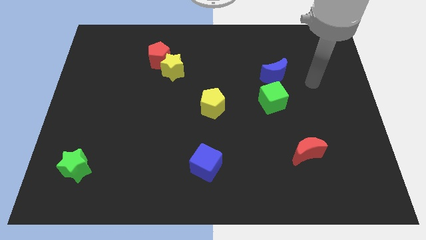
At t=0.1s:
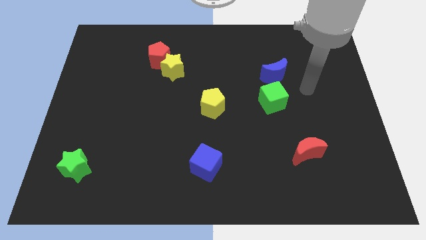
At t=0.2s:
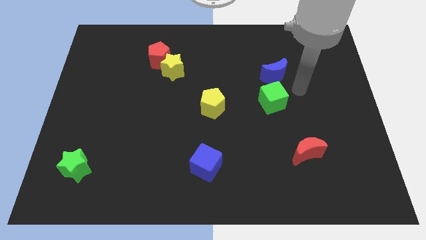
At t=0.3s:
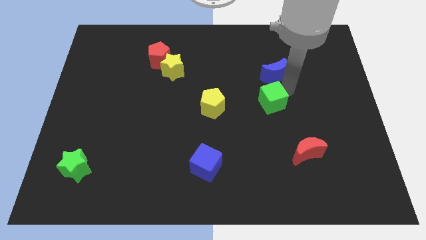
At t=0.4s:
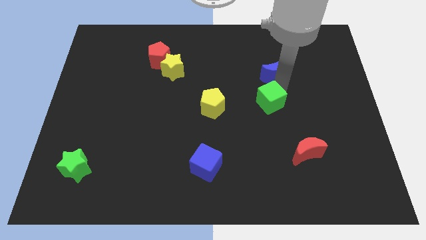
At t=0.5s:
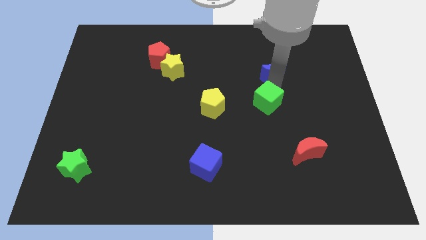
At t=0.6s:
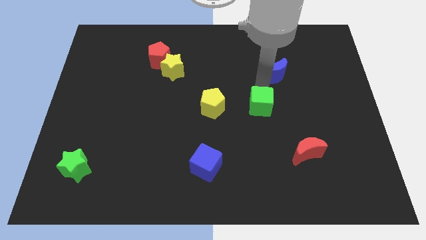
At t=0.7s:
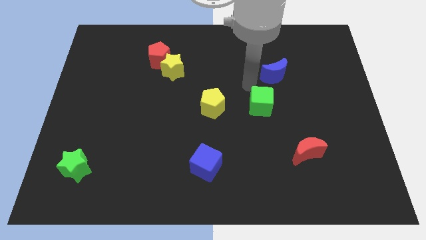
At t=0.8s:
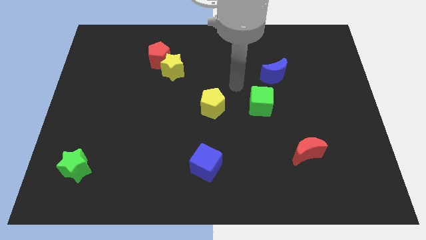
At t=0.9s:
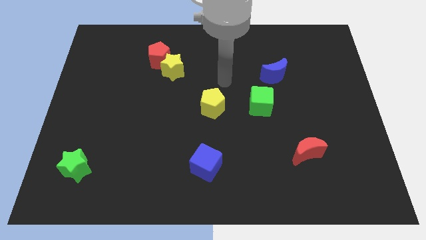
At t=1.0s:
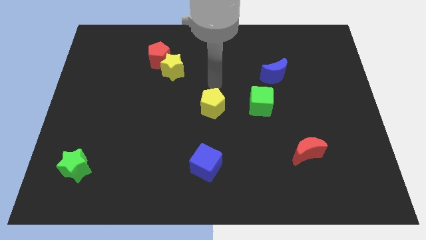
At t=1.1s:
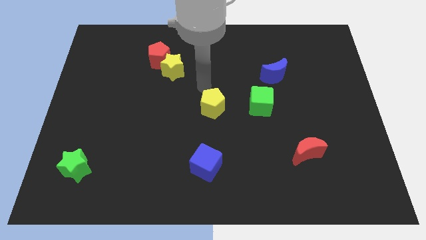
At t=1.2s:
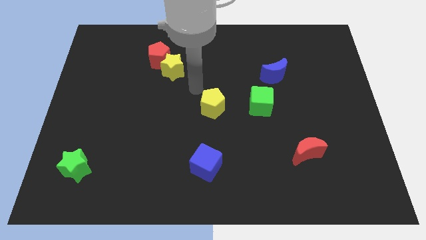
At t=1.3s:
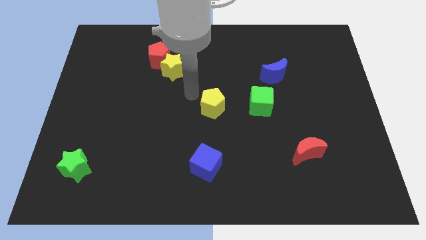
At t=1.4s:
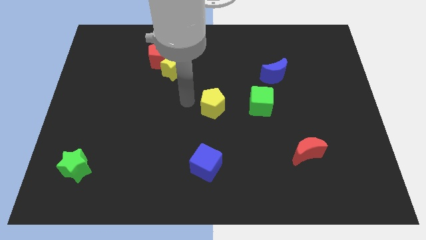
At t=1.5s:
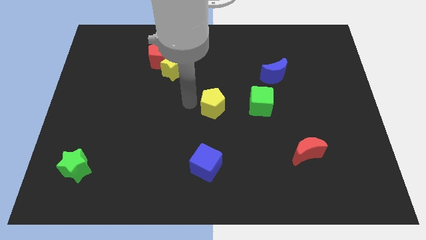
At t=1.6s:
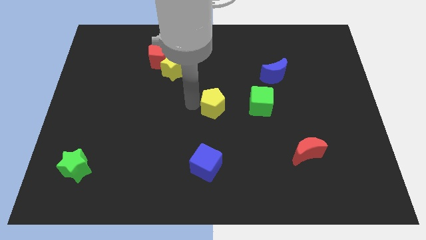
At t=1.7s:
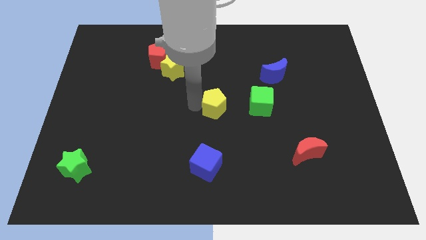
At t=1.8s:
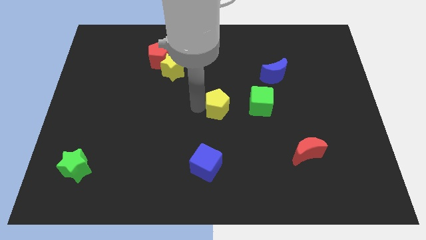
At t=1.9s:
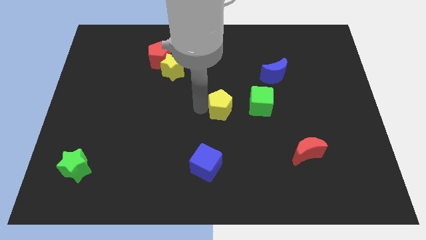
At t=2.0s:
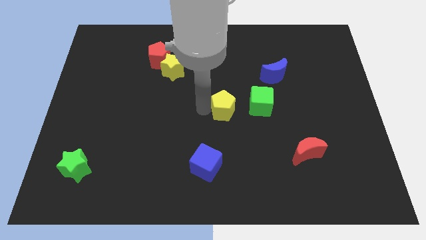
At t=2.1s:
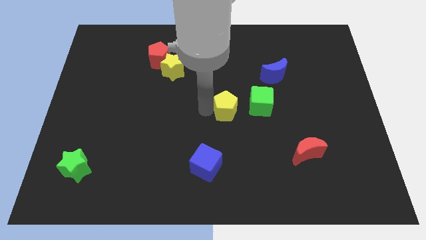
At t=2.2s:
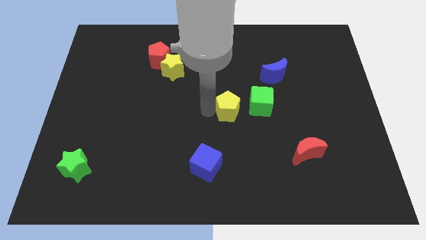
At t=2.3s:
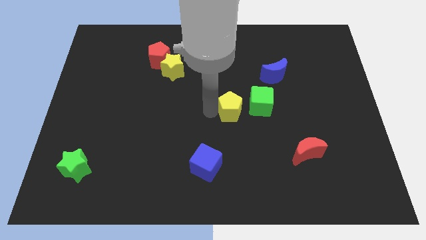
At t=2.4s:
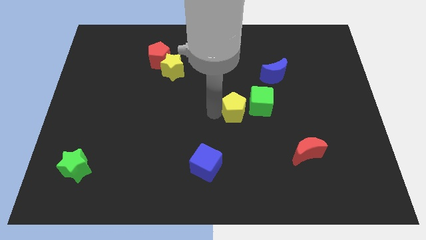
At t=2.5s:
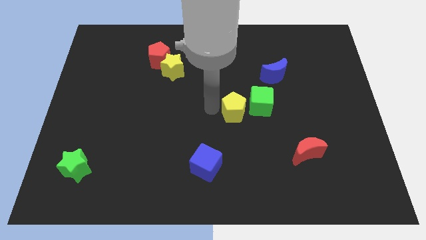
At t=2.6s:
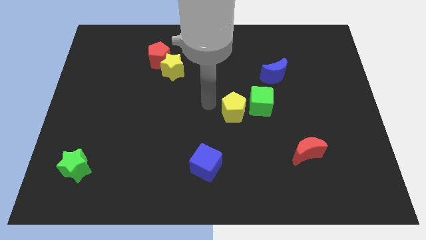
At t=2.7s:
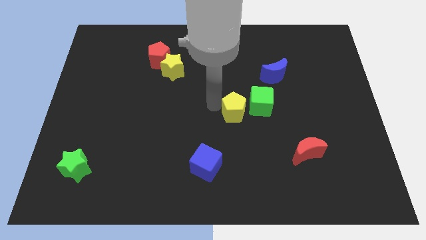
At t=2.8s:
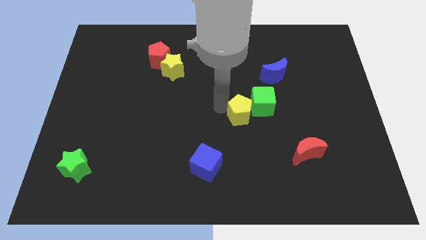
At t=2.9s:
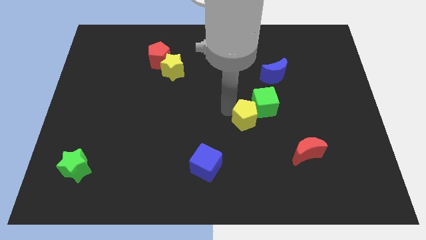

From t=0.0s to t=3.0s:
move the yellow pentagon right a little bit

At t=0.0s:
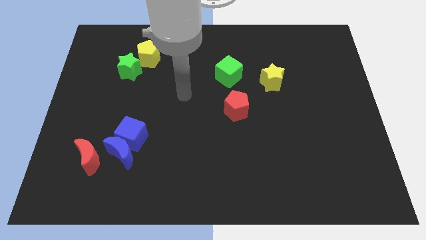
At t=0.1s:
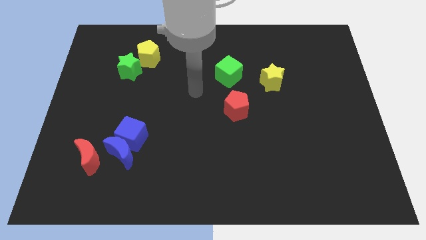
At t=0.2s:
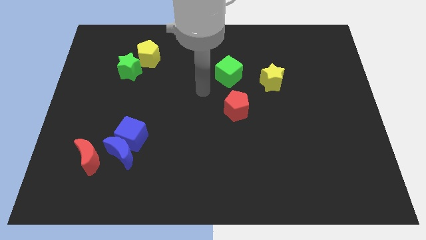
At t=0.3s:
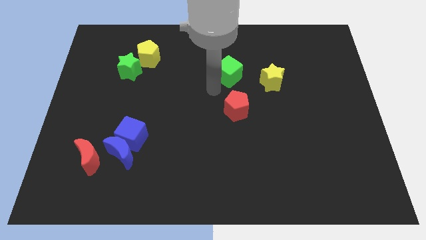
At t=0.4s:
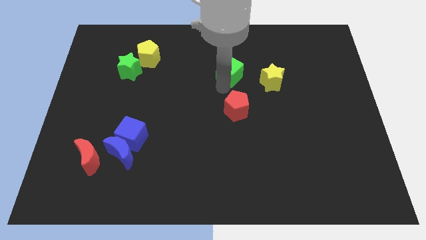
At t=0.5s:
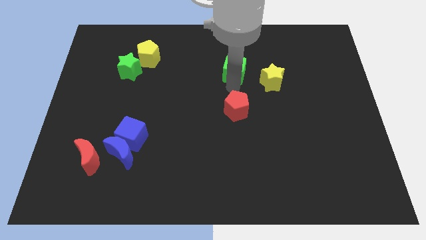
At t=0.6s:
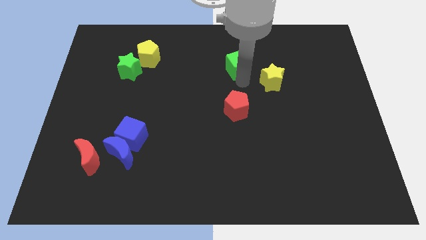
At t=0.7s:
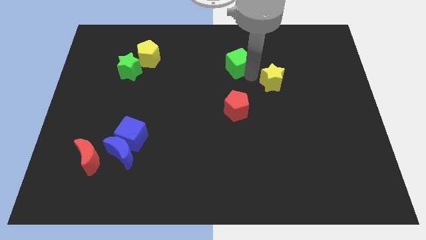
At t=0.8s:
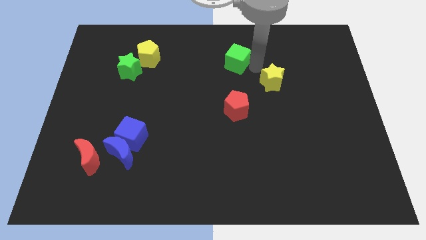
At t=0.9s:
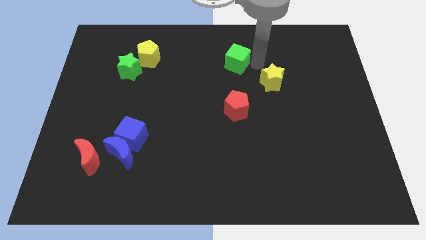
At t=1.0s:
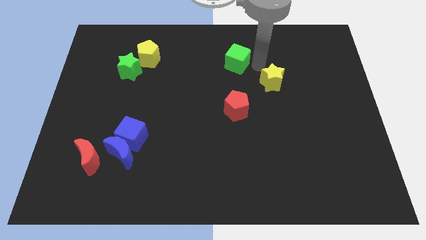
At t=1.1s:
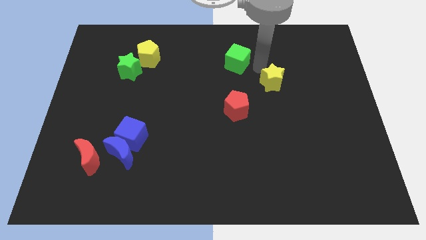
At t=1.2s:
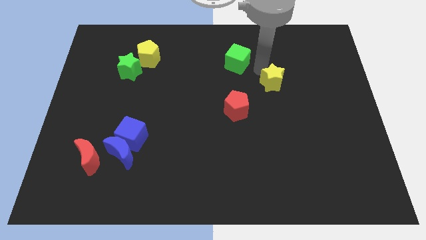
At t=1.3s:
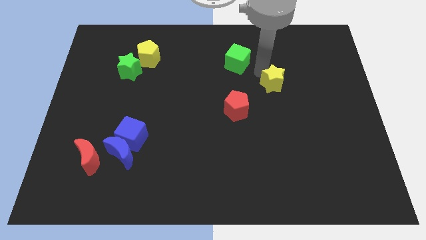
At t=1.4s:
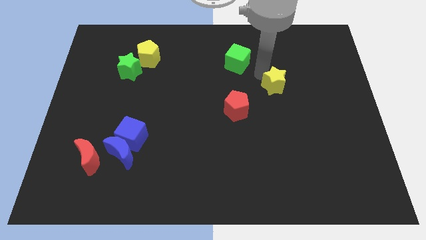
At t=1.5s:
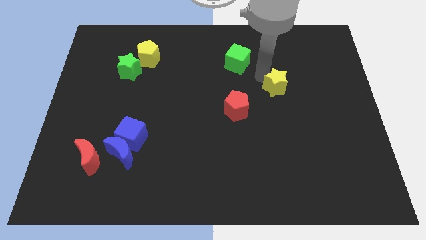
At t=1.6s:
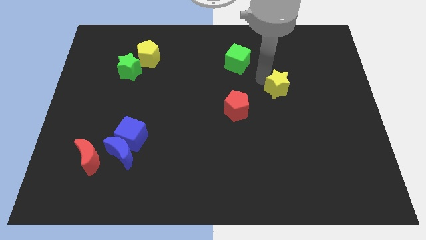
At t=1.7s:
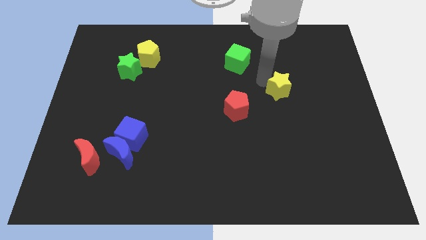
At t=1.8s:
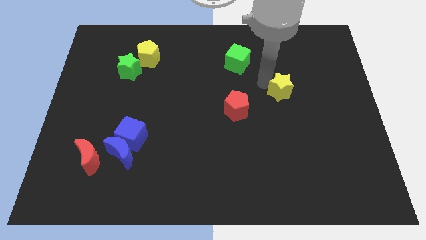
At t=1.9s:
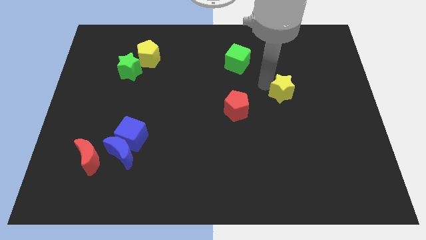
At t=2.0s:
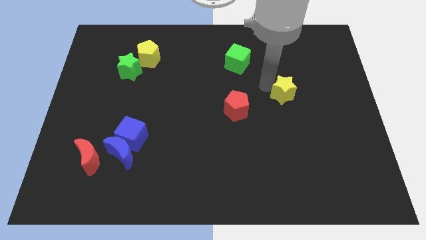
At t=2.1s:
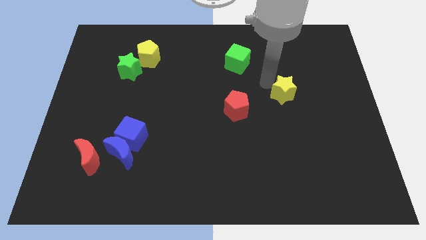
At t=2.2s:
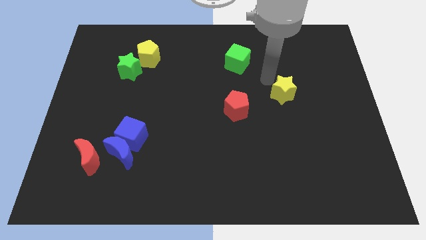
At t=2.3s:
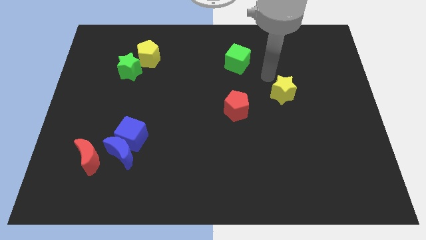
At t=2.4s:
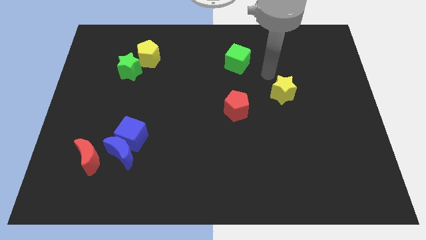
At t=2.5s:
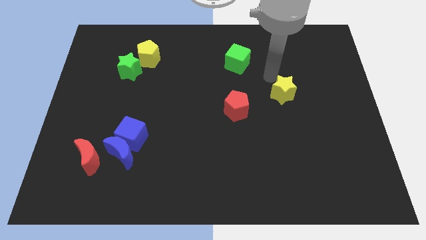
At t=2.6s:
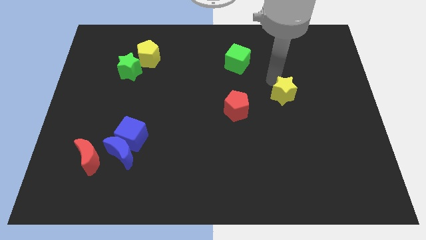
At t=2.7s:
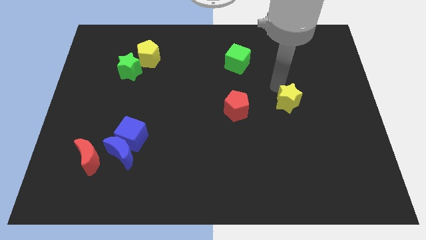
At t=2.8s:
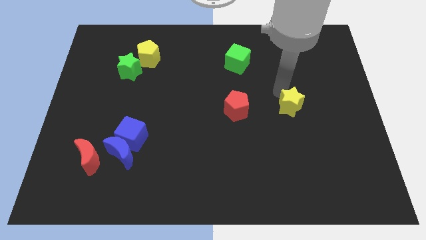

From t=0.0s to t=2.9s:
push the yellow star a little diagonally down and right

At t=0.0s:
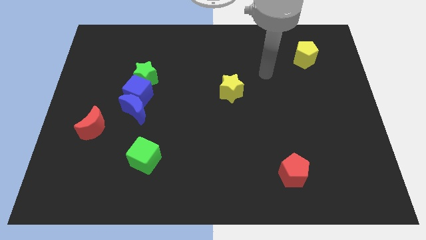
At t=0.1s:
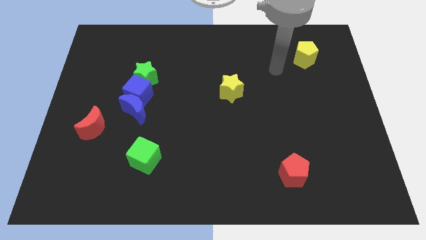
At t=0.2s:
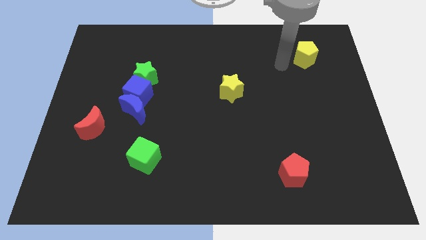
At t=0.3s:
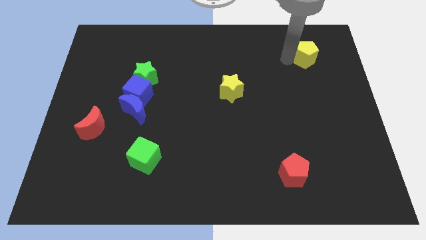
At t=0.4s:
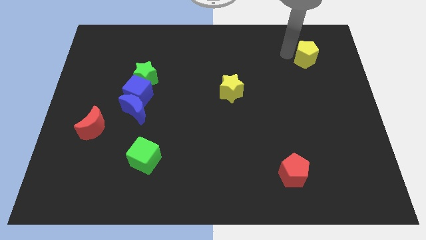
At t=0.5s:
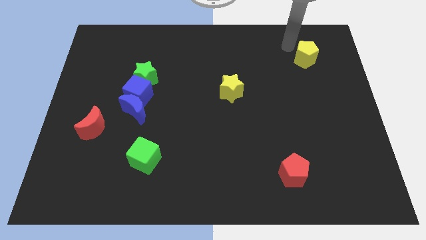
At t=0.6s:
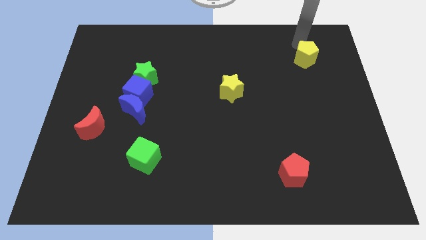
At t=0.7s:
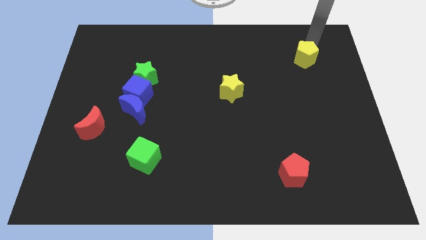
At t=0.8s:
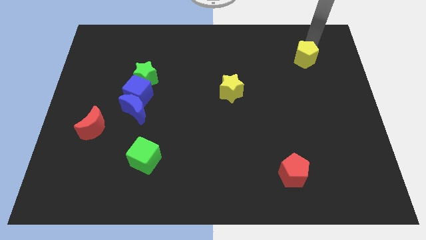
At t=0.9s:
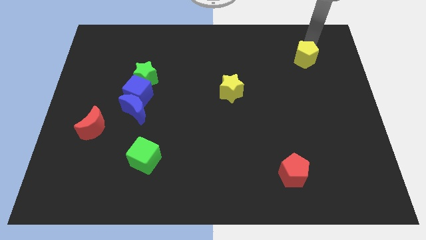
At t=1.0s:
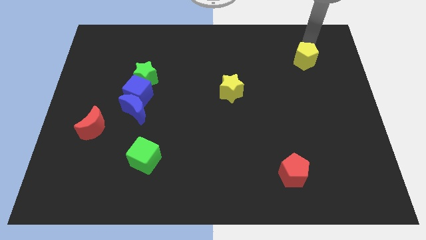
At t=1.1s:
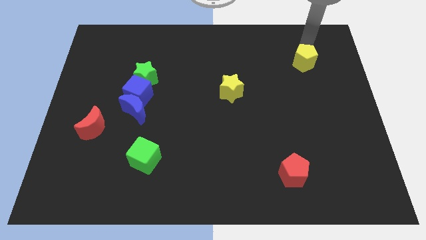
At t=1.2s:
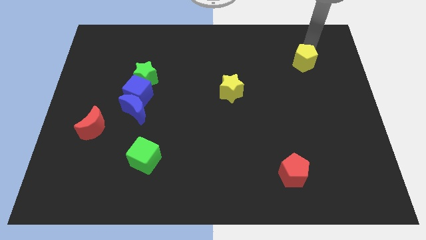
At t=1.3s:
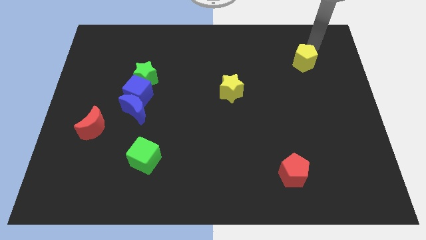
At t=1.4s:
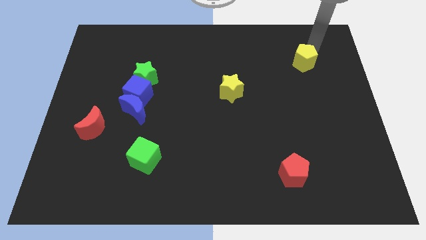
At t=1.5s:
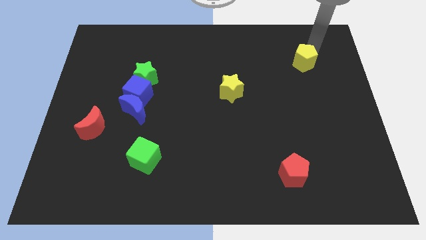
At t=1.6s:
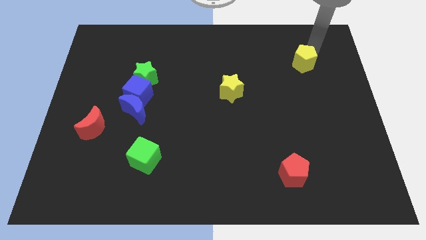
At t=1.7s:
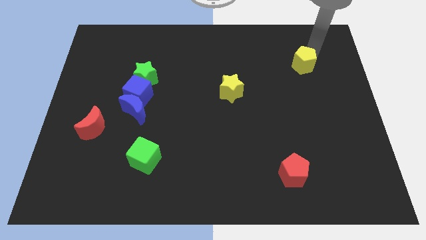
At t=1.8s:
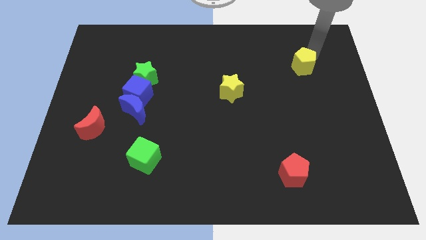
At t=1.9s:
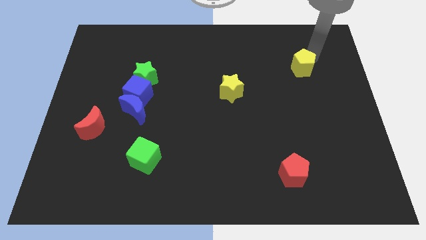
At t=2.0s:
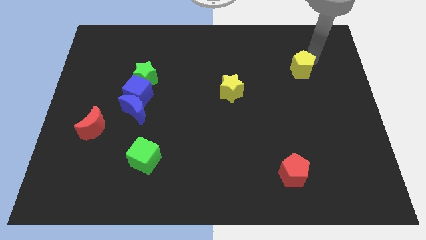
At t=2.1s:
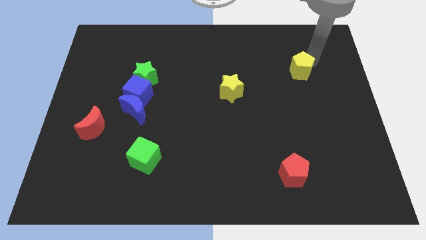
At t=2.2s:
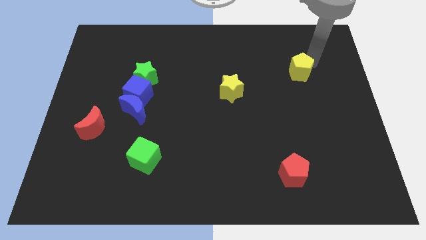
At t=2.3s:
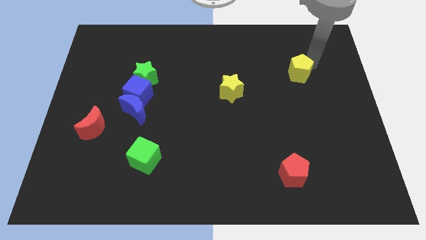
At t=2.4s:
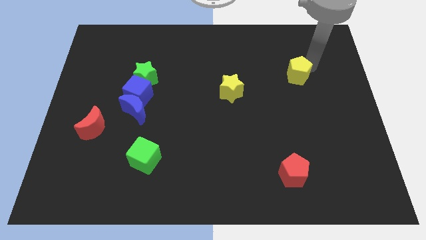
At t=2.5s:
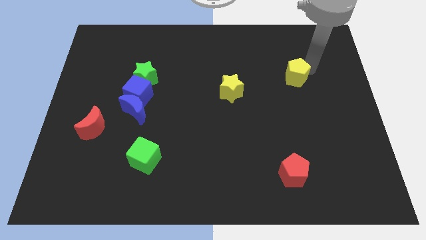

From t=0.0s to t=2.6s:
slide the yellow pentagon slightly downwards and left
